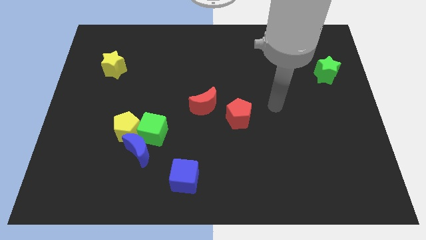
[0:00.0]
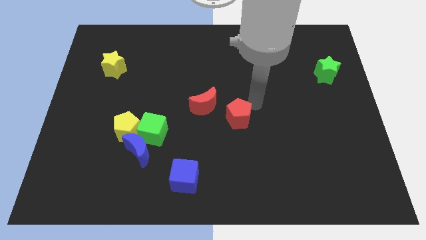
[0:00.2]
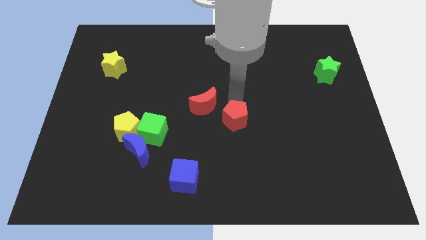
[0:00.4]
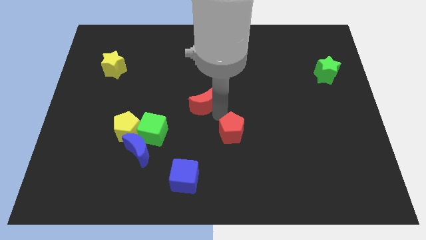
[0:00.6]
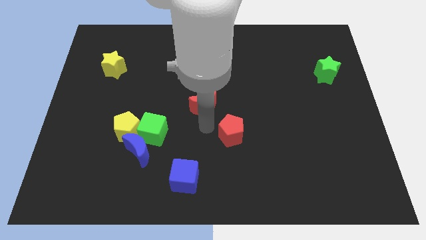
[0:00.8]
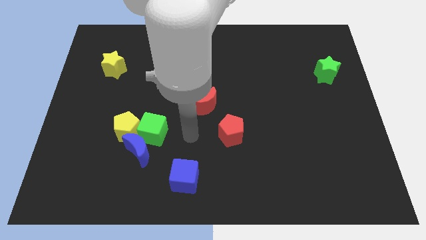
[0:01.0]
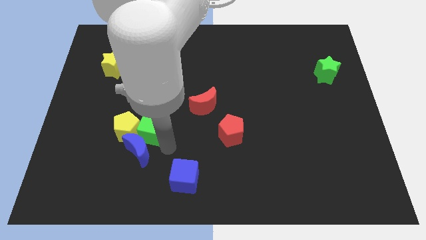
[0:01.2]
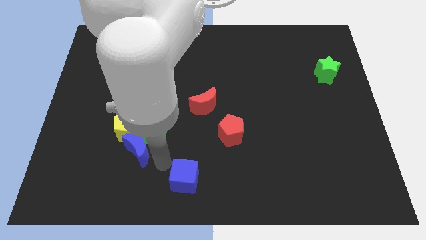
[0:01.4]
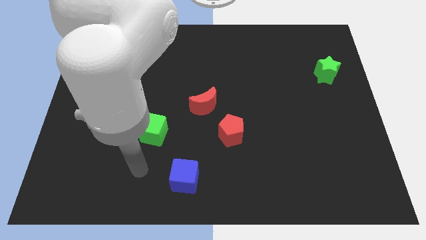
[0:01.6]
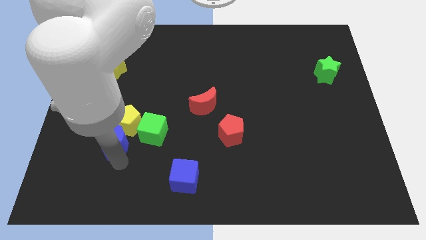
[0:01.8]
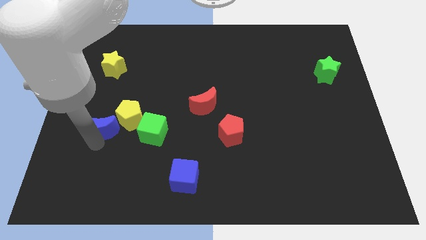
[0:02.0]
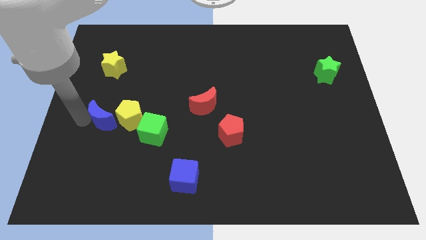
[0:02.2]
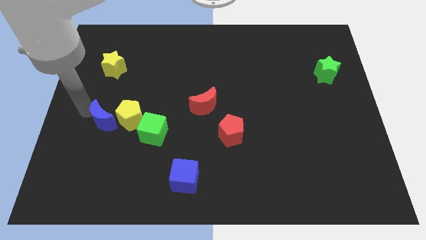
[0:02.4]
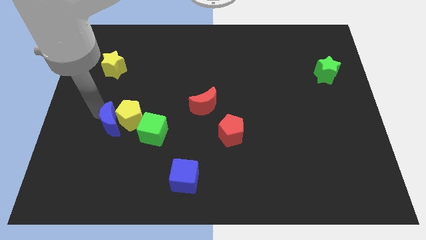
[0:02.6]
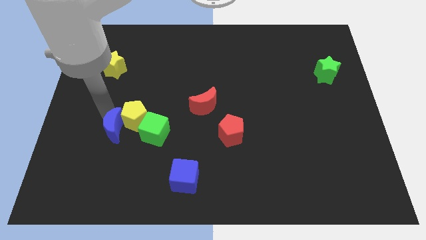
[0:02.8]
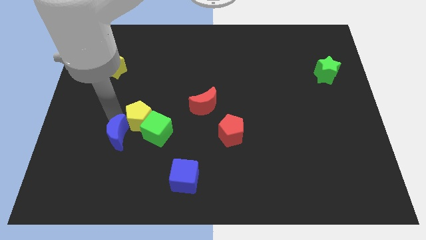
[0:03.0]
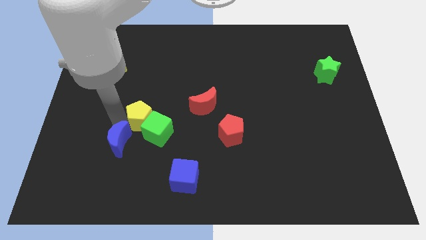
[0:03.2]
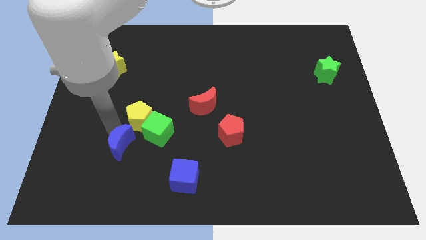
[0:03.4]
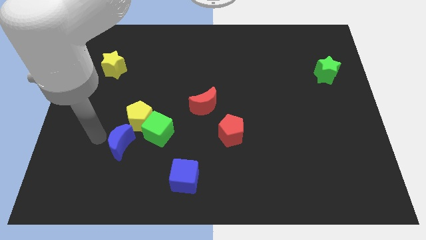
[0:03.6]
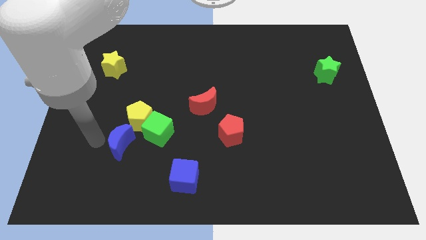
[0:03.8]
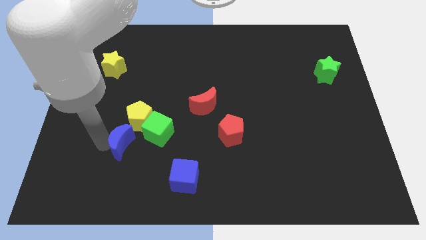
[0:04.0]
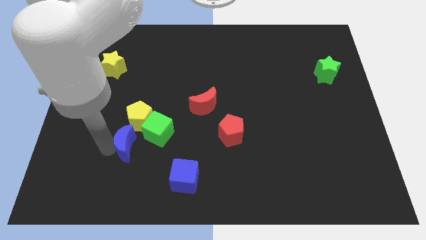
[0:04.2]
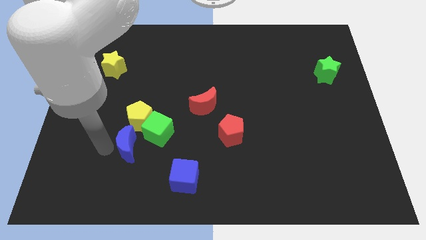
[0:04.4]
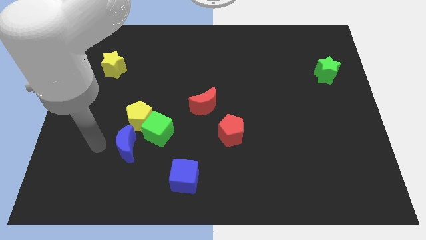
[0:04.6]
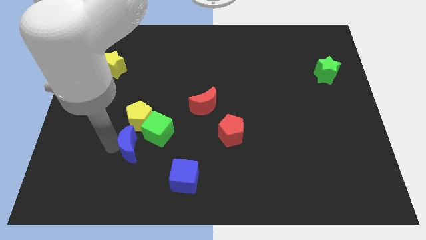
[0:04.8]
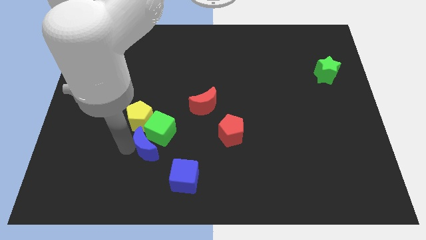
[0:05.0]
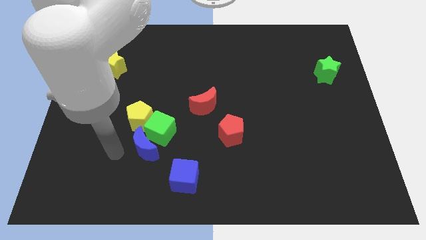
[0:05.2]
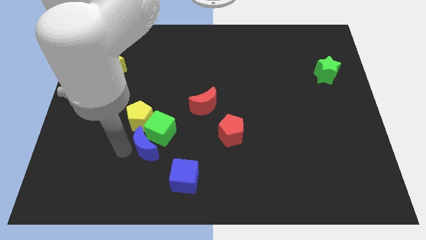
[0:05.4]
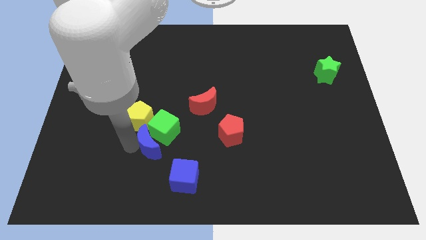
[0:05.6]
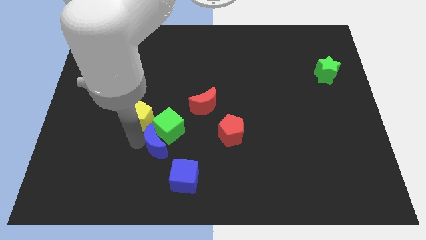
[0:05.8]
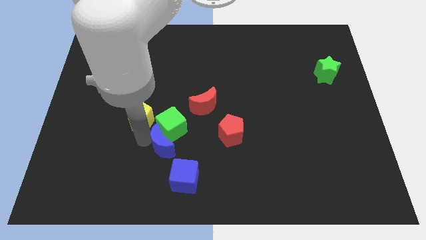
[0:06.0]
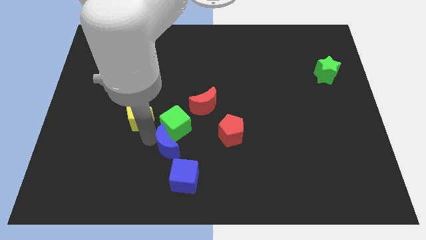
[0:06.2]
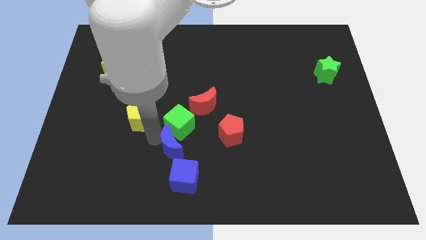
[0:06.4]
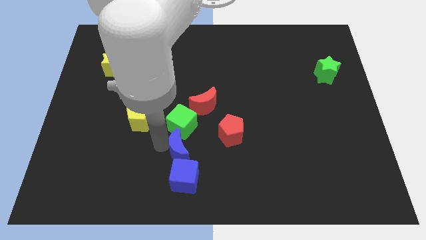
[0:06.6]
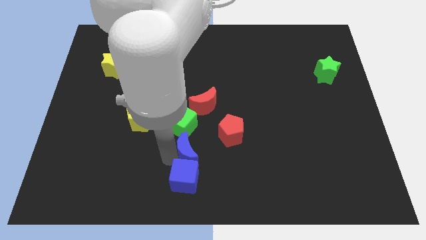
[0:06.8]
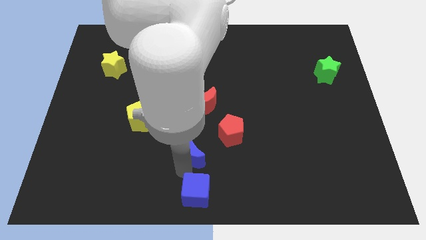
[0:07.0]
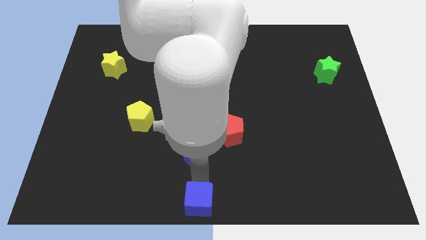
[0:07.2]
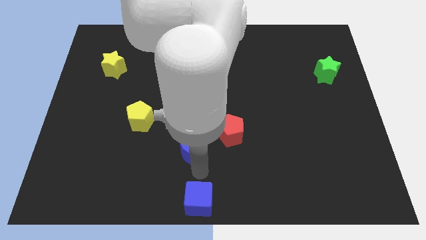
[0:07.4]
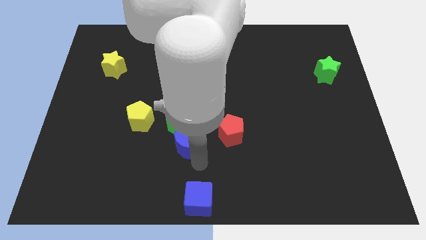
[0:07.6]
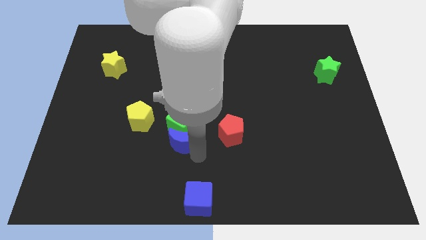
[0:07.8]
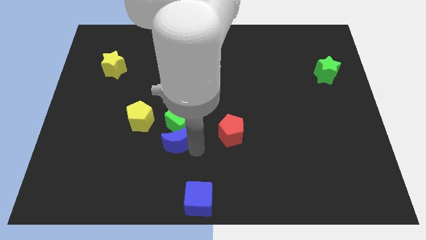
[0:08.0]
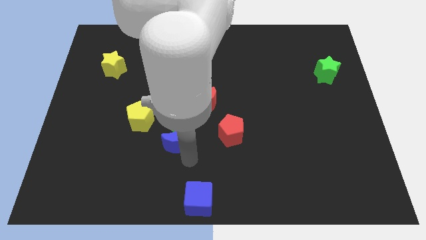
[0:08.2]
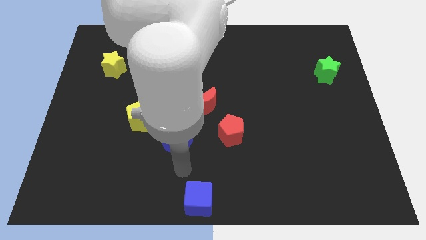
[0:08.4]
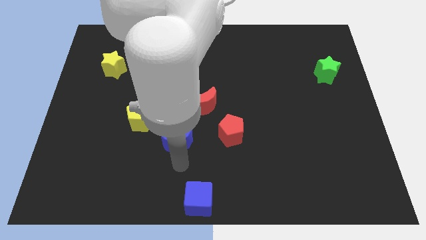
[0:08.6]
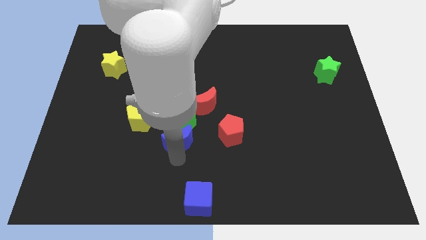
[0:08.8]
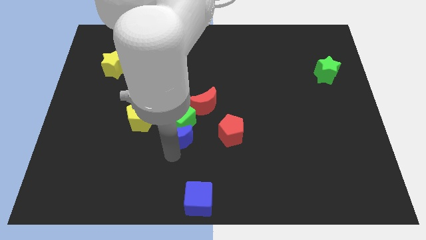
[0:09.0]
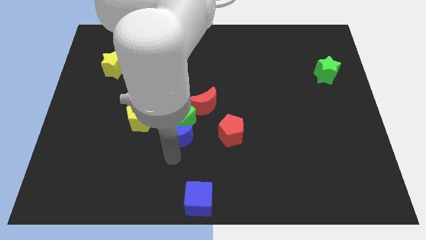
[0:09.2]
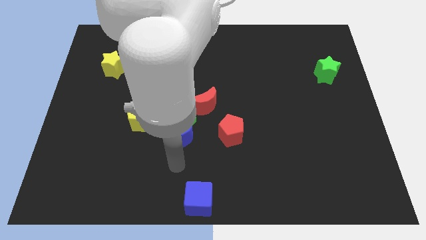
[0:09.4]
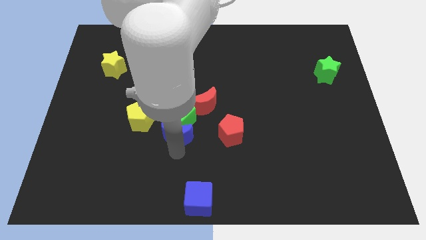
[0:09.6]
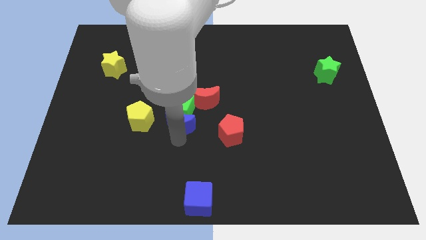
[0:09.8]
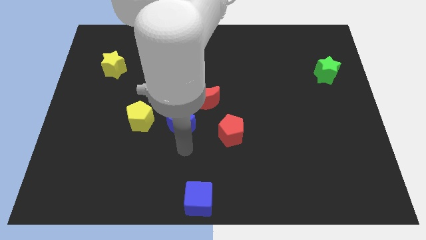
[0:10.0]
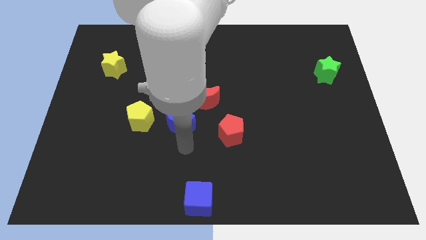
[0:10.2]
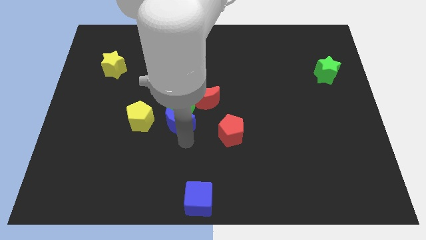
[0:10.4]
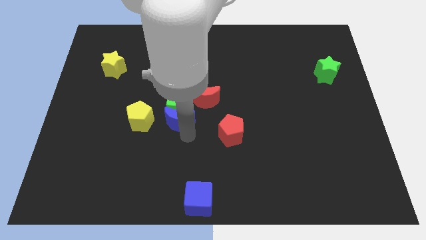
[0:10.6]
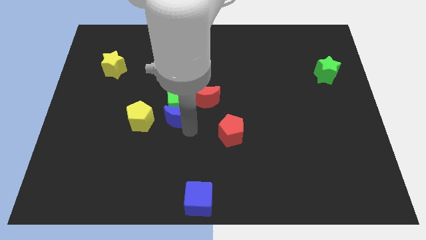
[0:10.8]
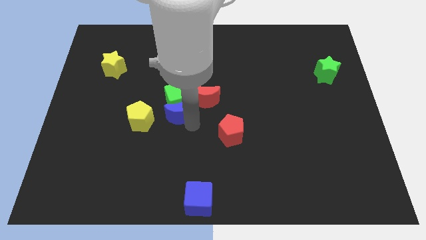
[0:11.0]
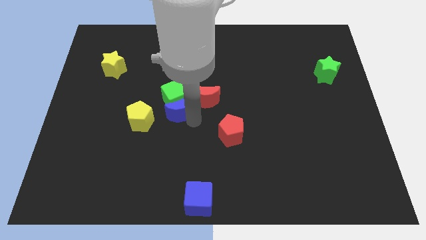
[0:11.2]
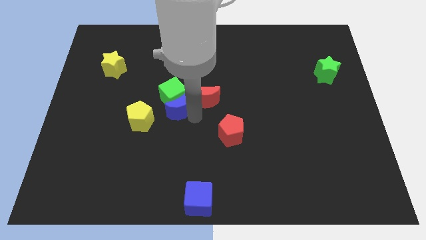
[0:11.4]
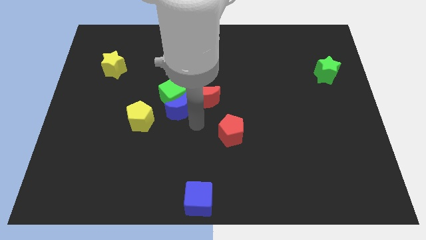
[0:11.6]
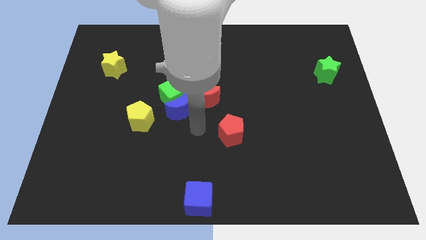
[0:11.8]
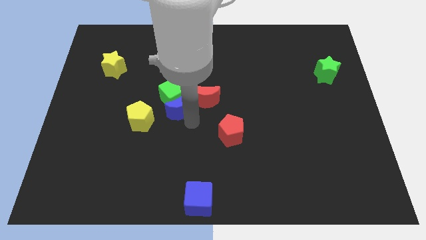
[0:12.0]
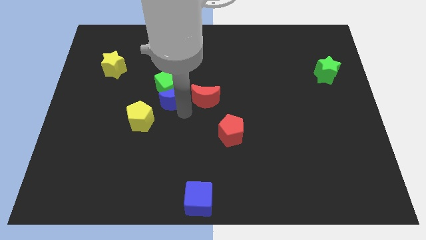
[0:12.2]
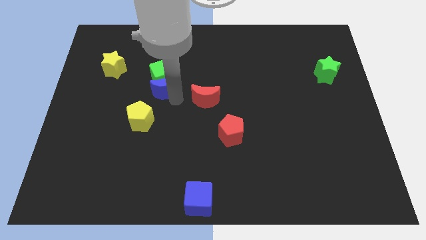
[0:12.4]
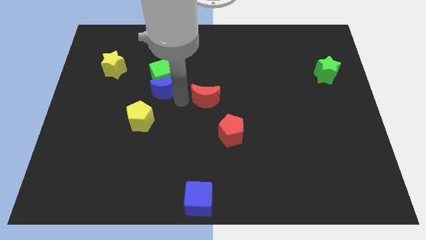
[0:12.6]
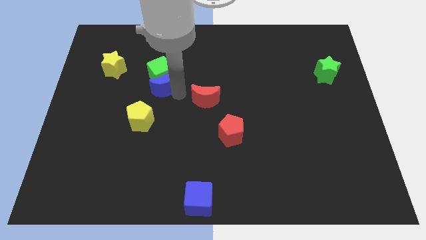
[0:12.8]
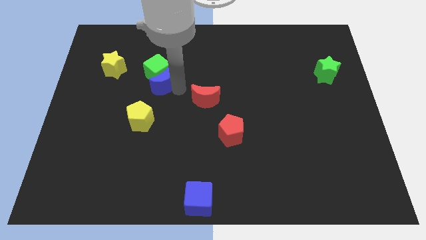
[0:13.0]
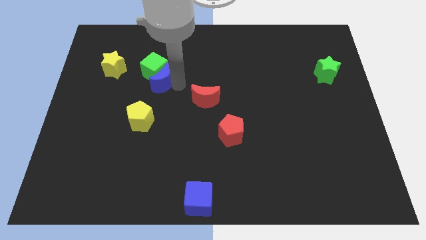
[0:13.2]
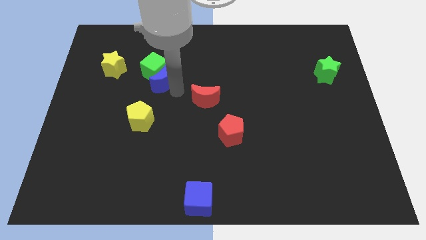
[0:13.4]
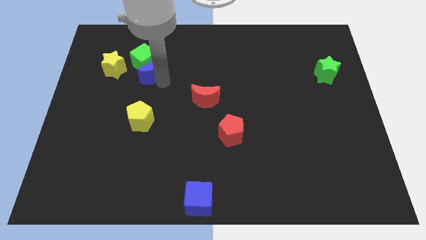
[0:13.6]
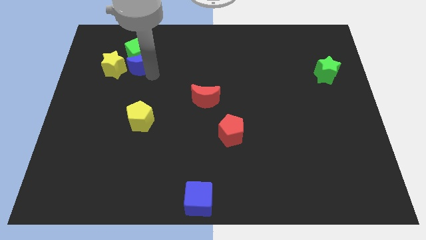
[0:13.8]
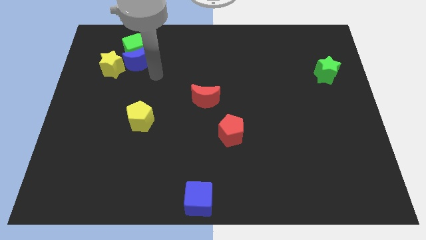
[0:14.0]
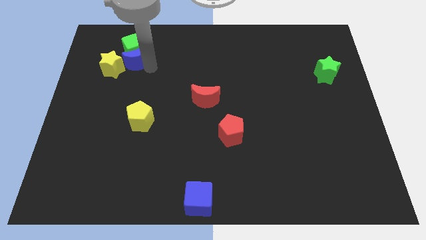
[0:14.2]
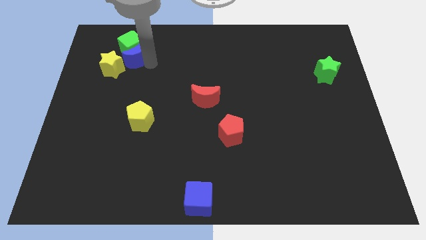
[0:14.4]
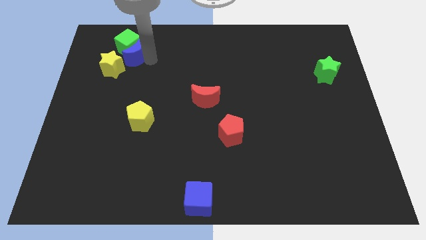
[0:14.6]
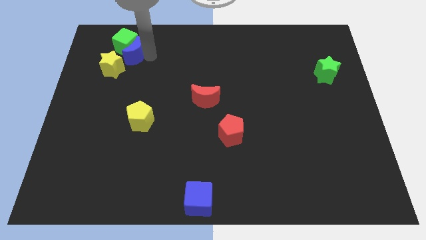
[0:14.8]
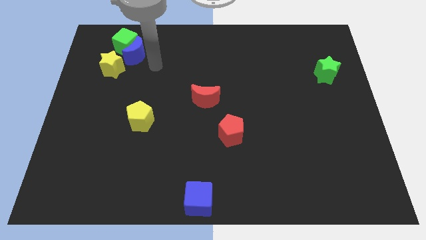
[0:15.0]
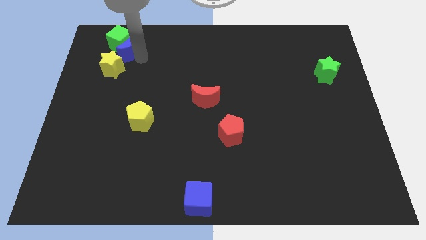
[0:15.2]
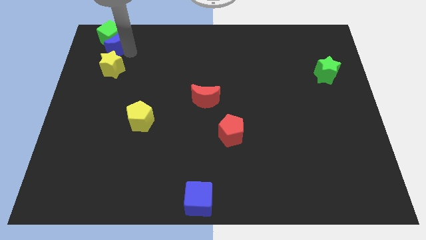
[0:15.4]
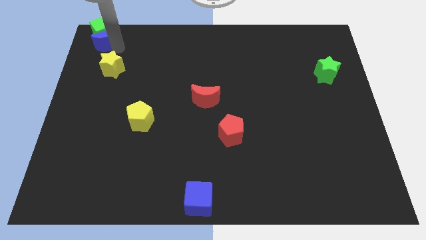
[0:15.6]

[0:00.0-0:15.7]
push the blue moon to the top left
